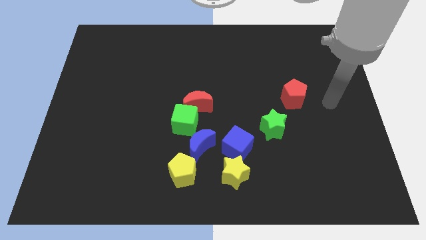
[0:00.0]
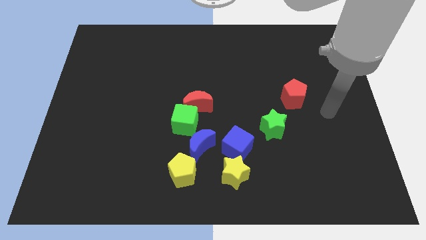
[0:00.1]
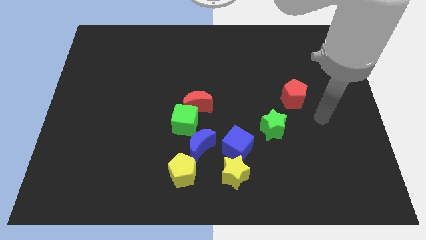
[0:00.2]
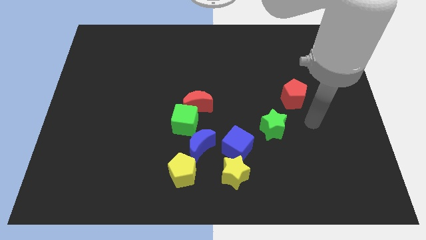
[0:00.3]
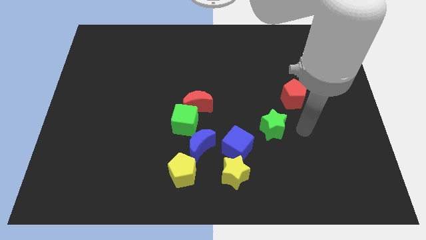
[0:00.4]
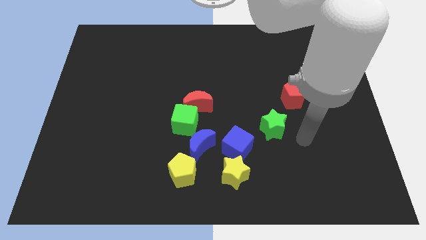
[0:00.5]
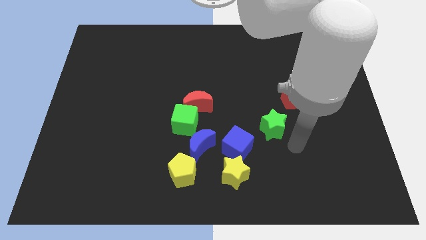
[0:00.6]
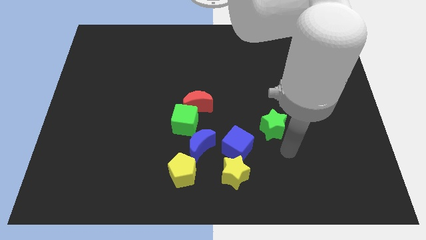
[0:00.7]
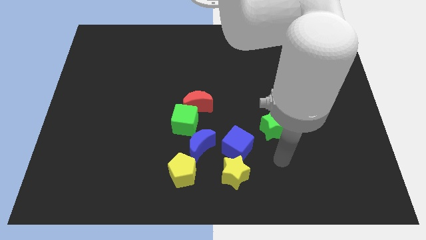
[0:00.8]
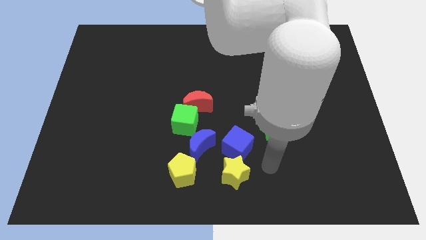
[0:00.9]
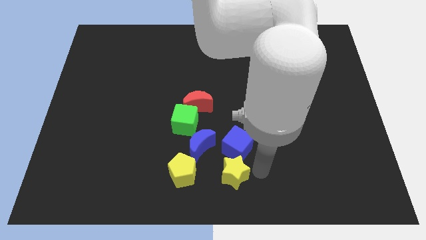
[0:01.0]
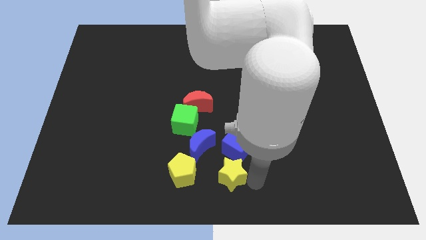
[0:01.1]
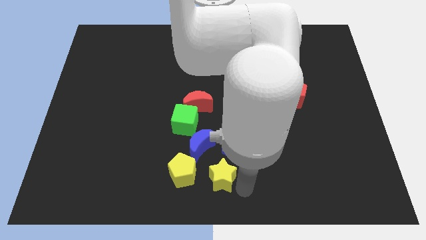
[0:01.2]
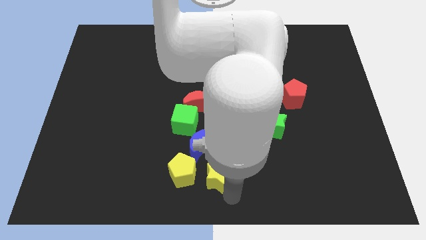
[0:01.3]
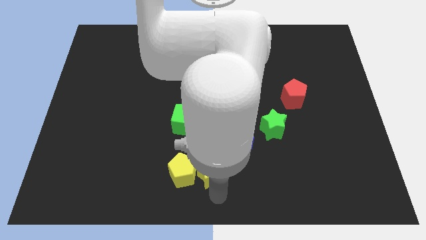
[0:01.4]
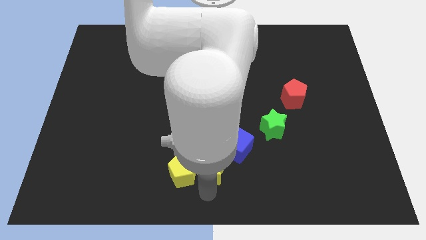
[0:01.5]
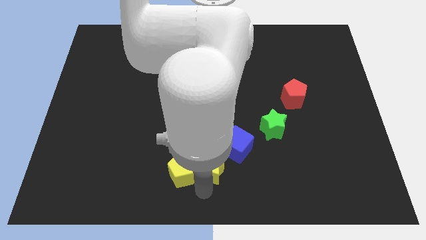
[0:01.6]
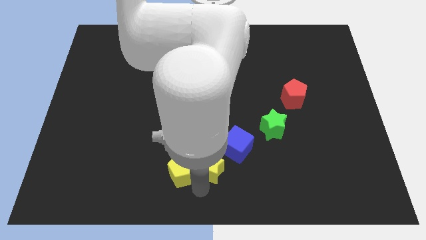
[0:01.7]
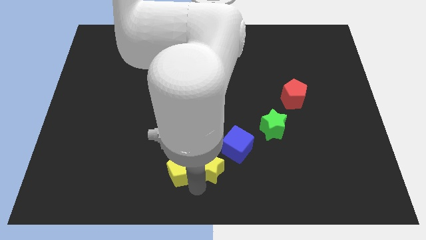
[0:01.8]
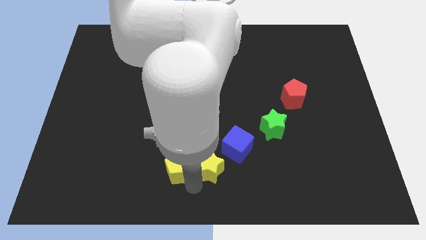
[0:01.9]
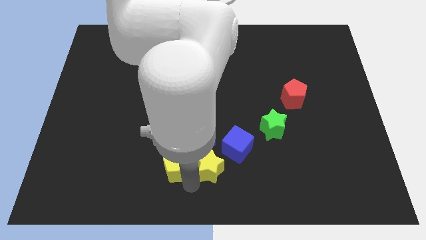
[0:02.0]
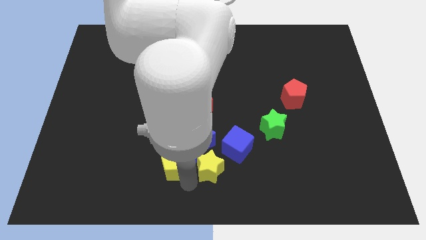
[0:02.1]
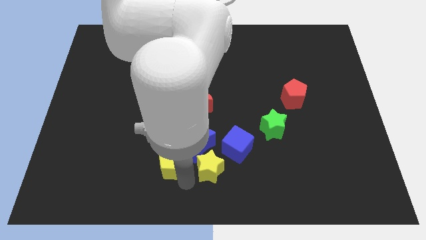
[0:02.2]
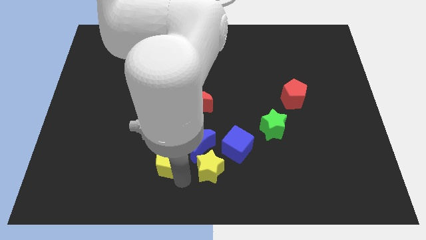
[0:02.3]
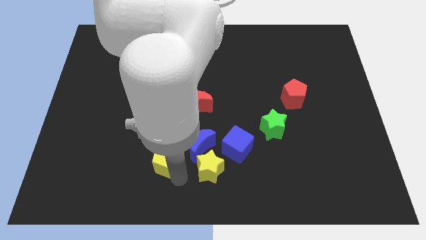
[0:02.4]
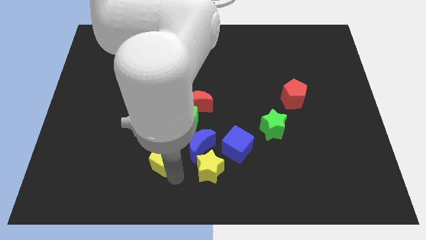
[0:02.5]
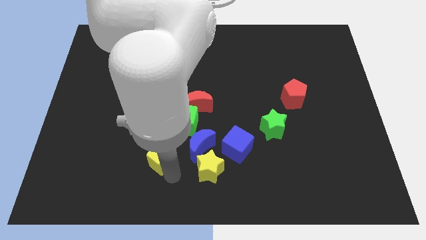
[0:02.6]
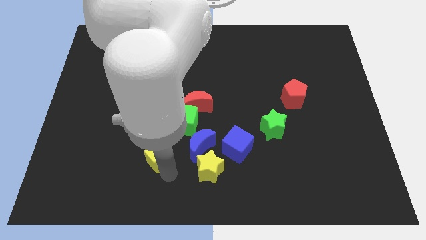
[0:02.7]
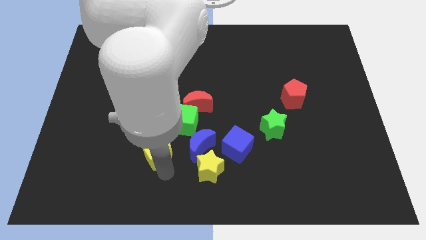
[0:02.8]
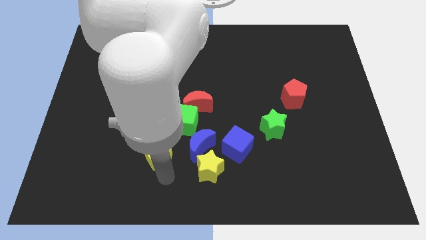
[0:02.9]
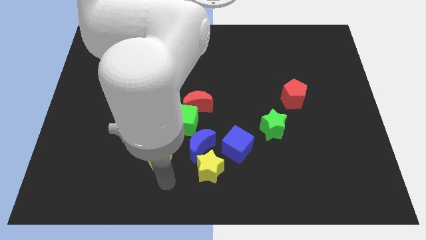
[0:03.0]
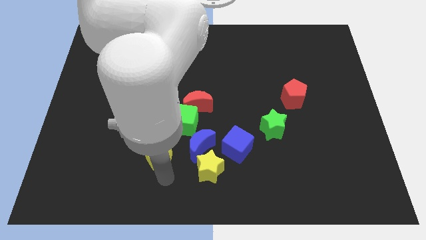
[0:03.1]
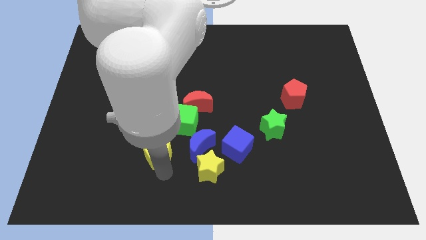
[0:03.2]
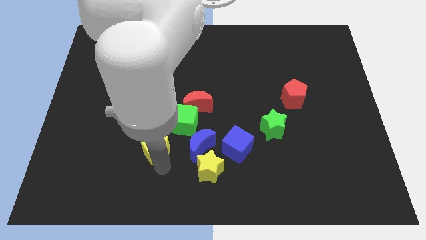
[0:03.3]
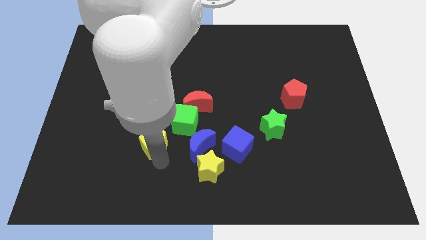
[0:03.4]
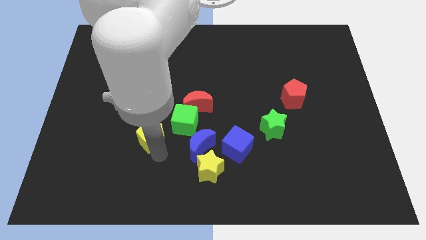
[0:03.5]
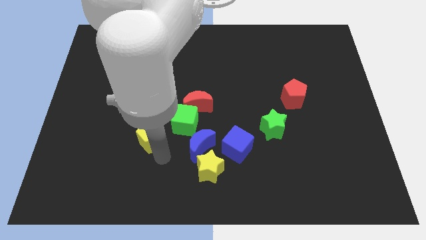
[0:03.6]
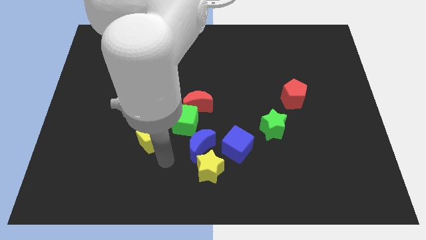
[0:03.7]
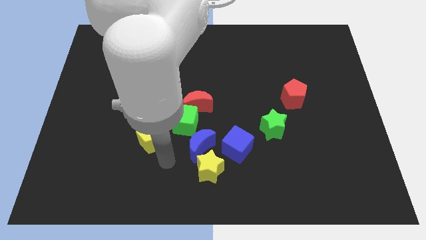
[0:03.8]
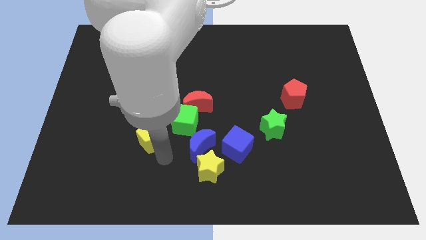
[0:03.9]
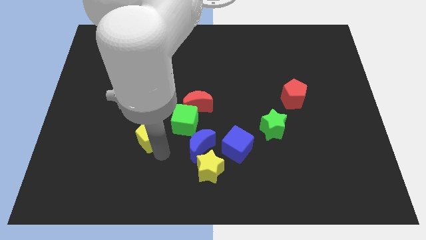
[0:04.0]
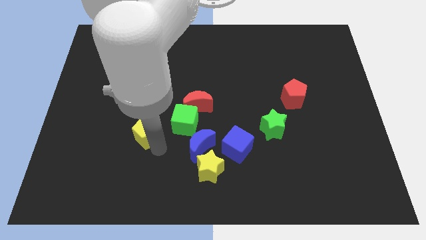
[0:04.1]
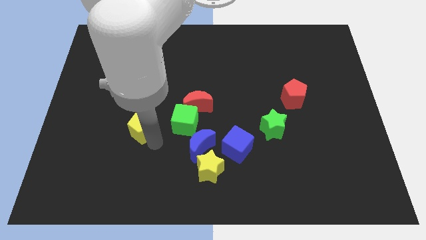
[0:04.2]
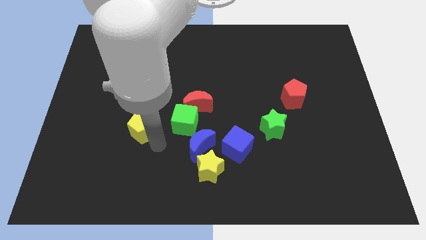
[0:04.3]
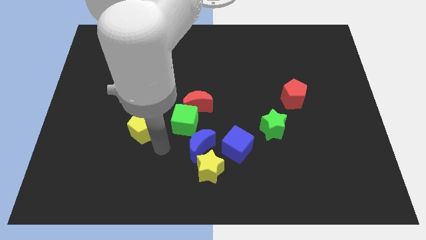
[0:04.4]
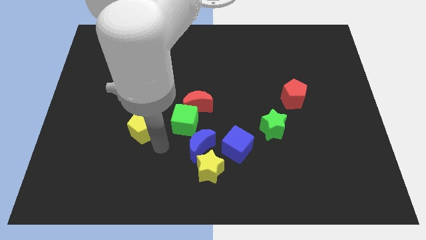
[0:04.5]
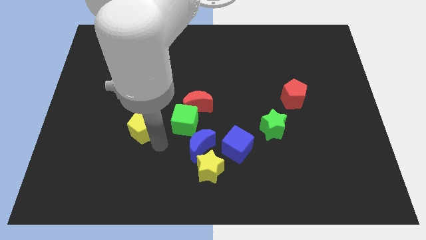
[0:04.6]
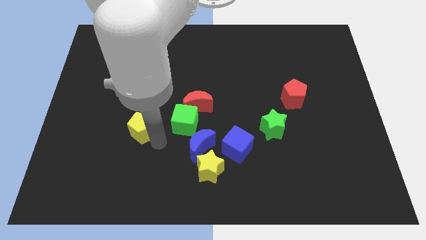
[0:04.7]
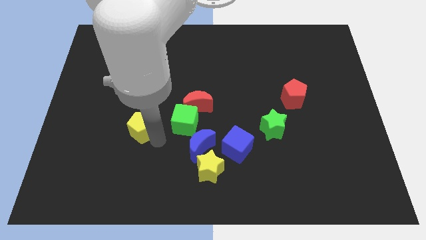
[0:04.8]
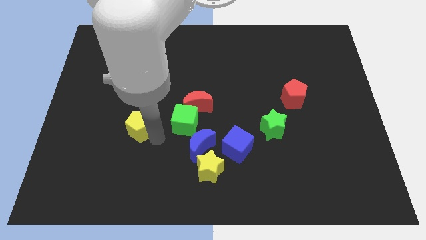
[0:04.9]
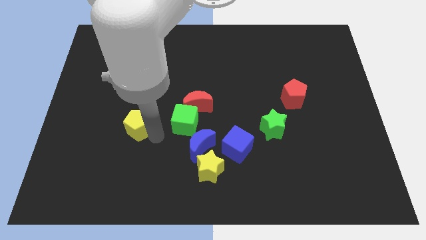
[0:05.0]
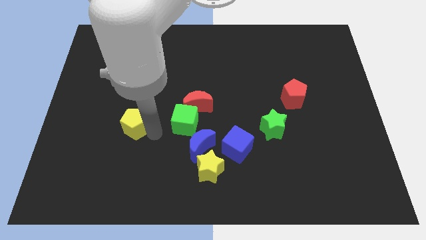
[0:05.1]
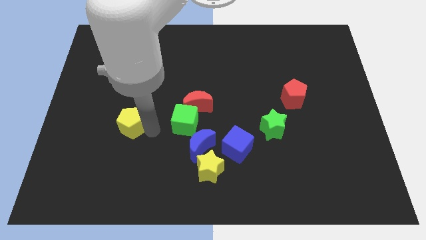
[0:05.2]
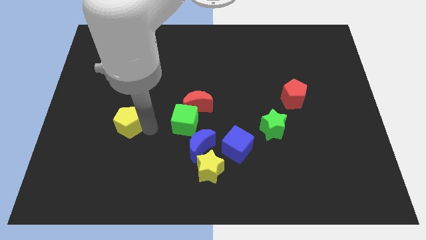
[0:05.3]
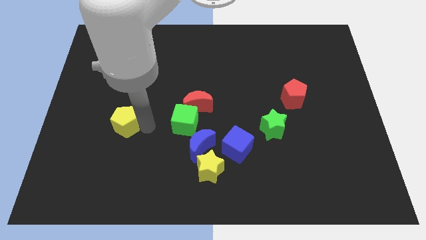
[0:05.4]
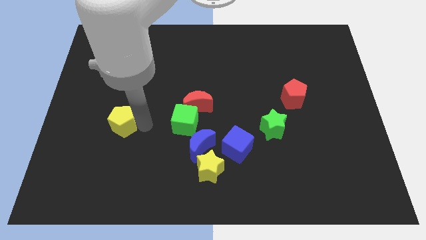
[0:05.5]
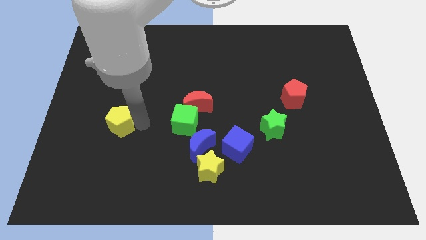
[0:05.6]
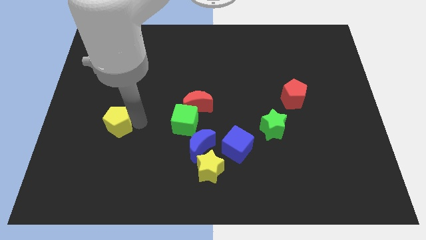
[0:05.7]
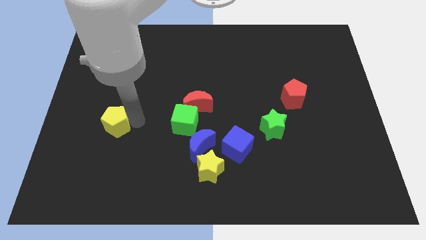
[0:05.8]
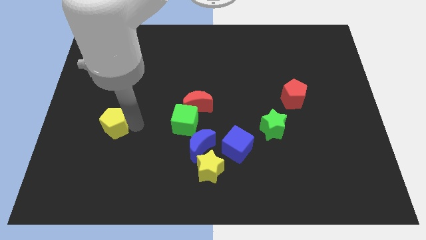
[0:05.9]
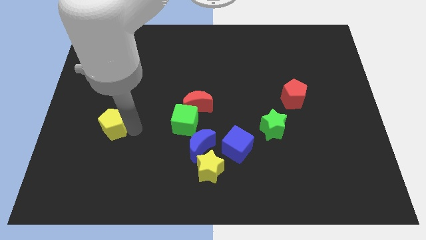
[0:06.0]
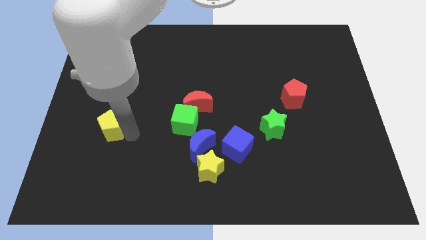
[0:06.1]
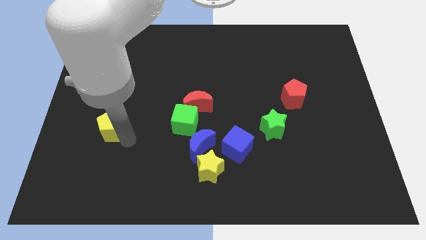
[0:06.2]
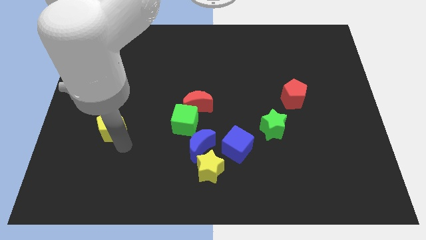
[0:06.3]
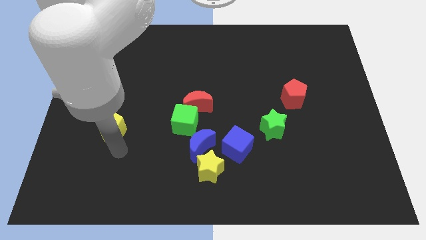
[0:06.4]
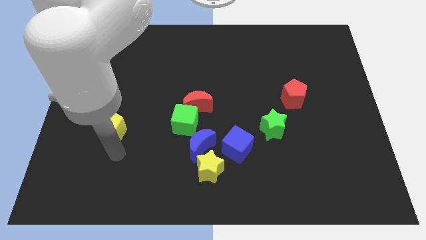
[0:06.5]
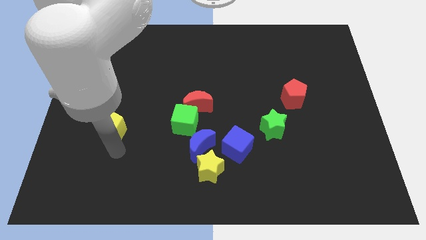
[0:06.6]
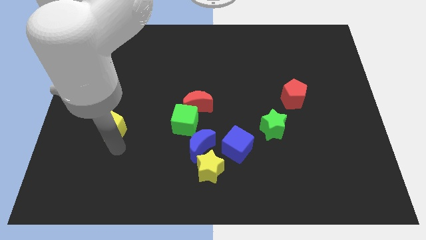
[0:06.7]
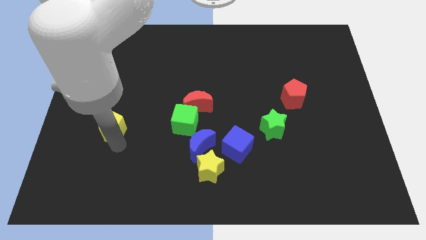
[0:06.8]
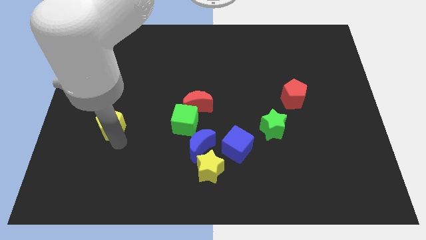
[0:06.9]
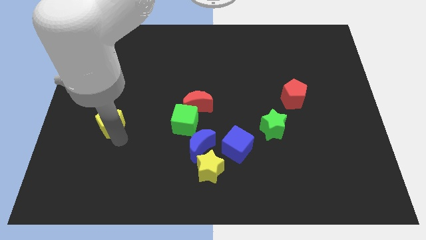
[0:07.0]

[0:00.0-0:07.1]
push the yellow pentagon upwards and to the left

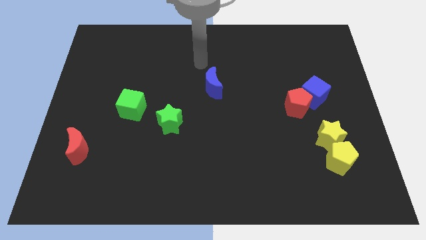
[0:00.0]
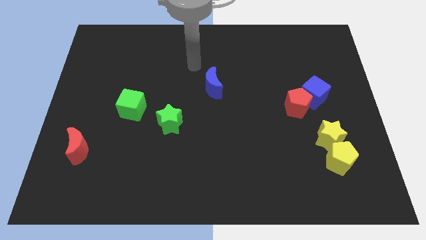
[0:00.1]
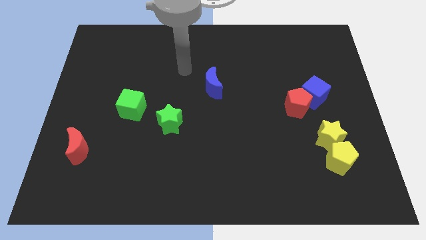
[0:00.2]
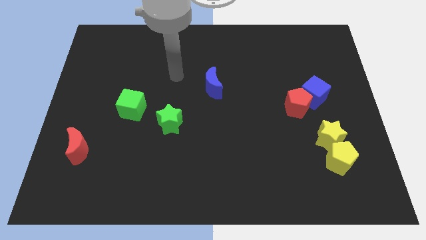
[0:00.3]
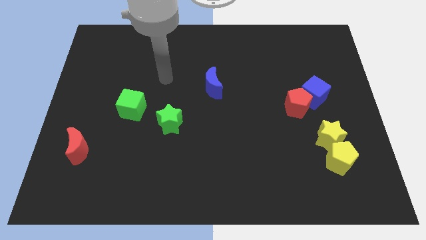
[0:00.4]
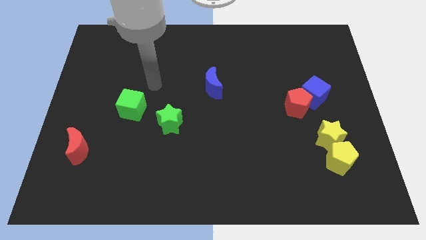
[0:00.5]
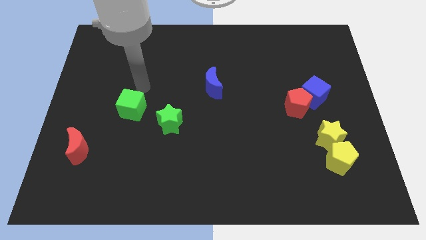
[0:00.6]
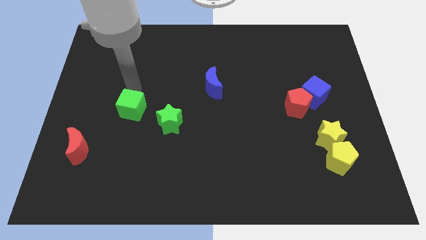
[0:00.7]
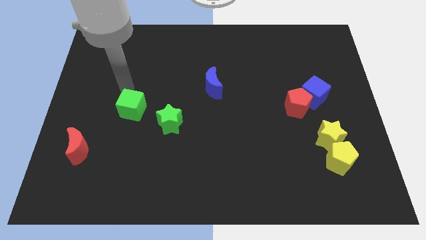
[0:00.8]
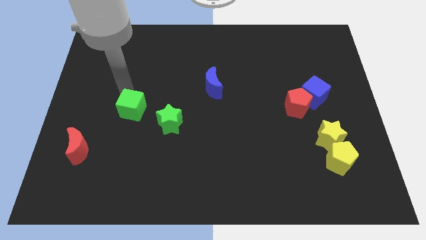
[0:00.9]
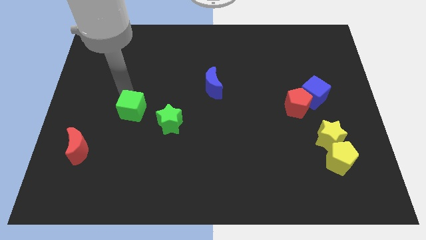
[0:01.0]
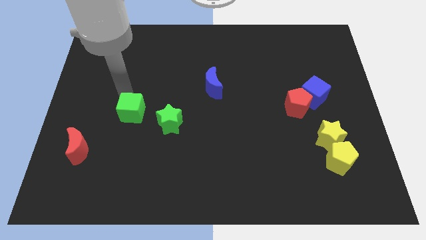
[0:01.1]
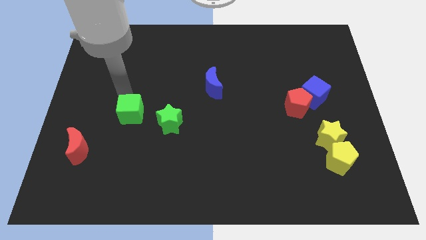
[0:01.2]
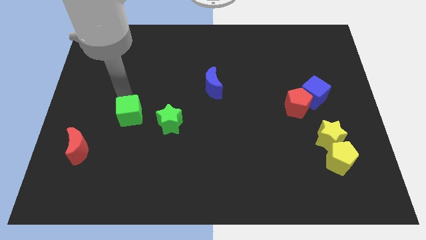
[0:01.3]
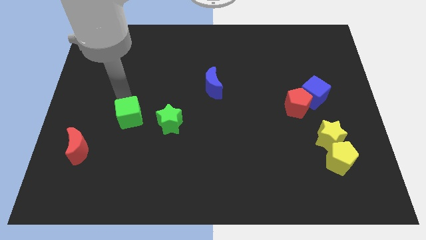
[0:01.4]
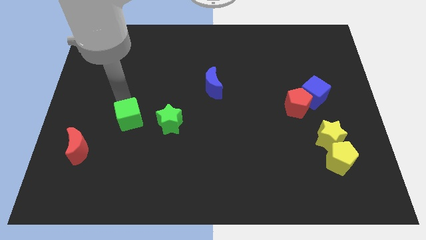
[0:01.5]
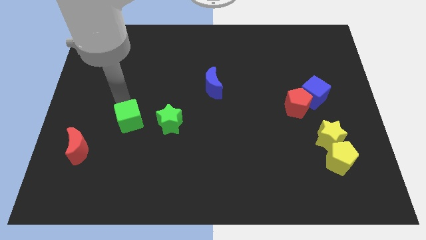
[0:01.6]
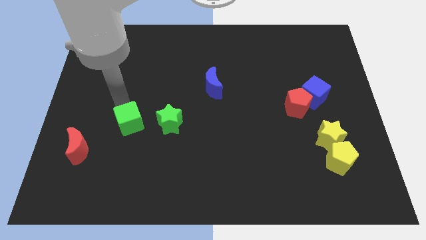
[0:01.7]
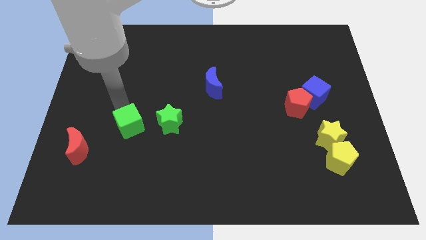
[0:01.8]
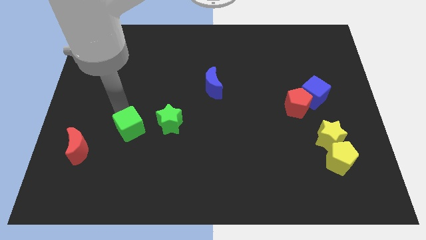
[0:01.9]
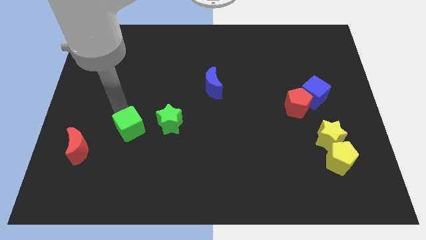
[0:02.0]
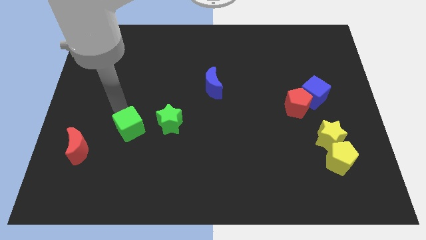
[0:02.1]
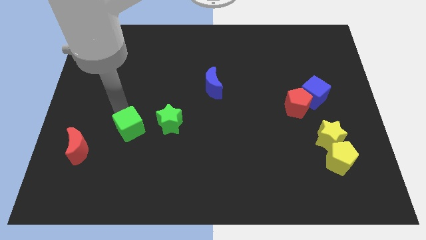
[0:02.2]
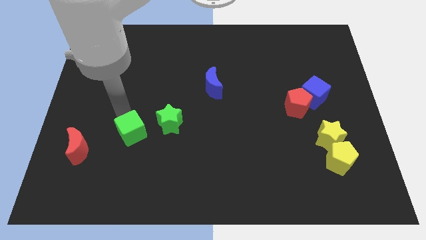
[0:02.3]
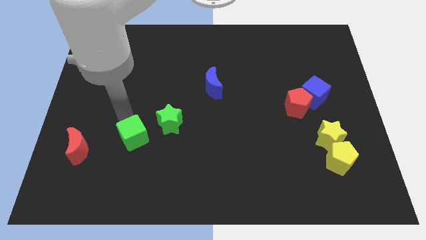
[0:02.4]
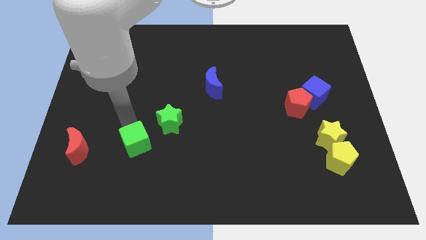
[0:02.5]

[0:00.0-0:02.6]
slide the green cube a little bit down and to the right diagonally
